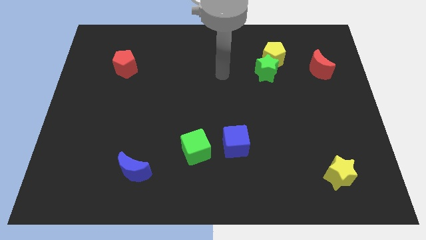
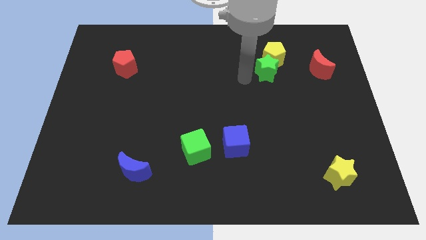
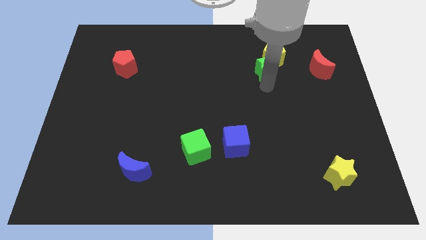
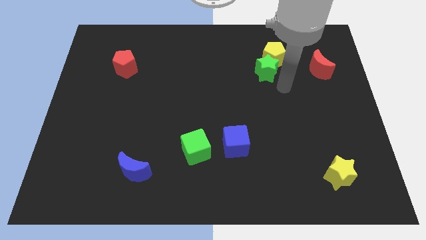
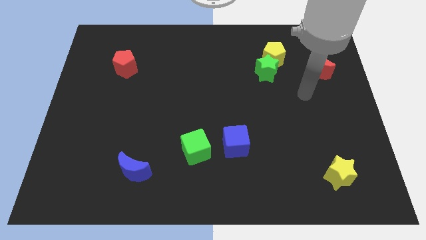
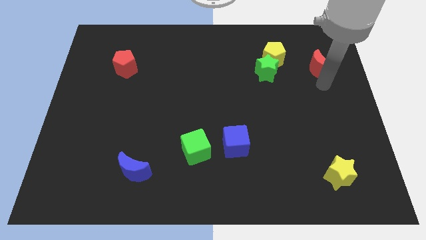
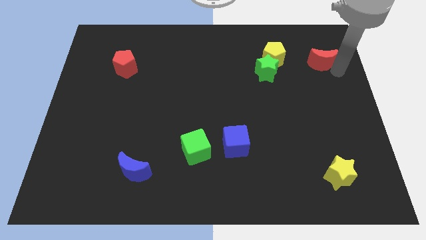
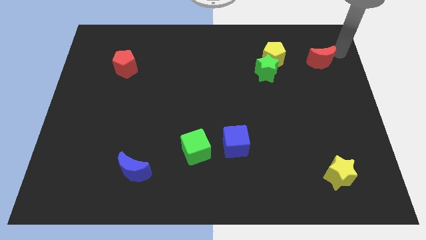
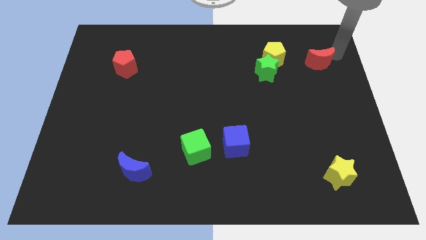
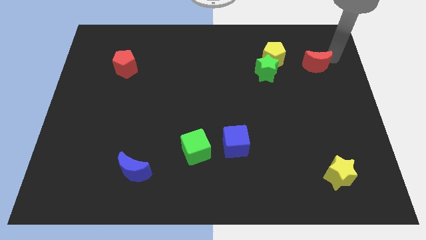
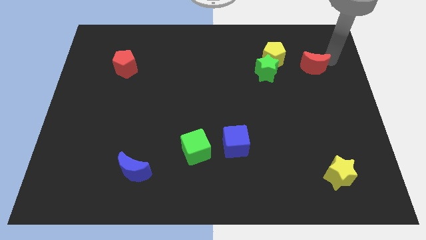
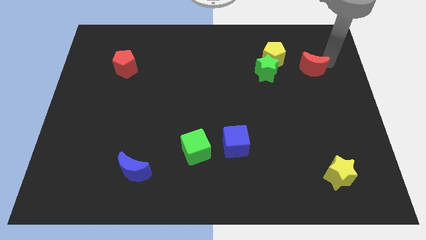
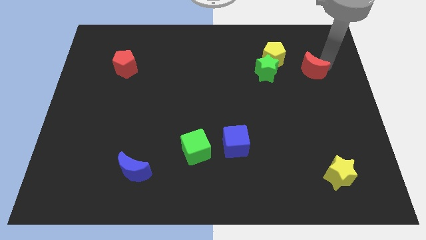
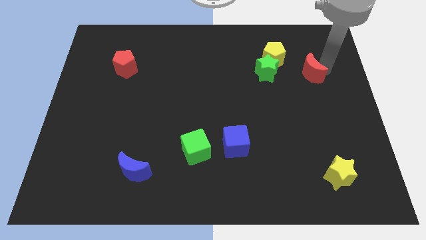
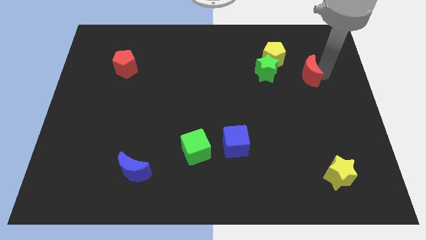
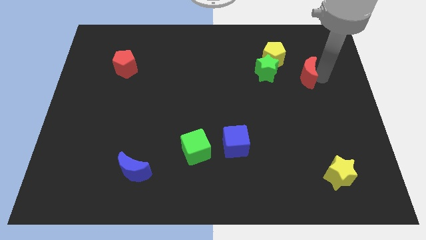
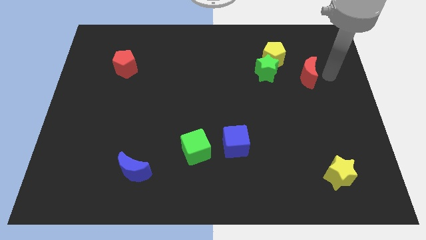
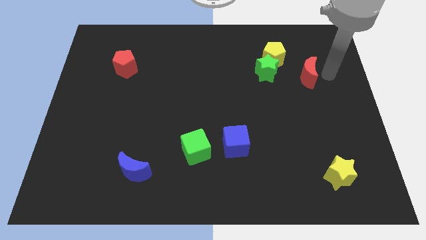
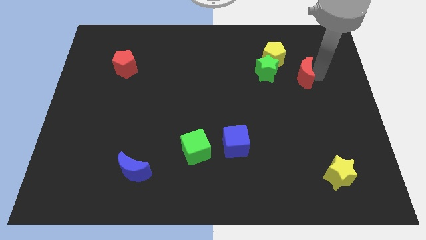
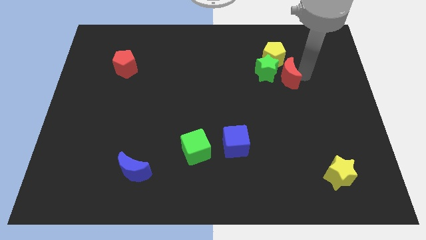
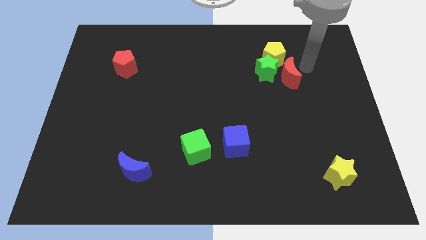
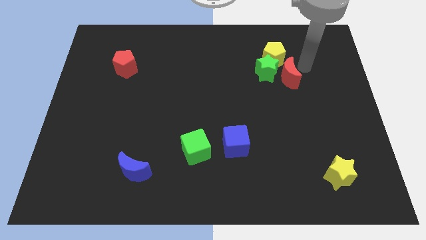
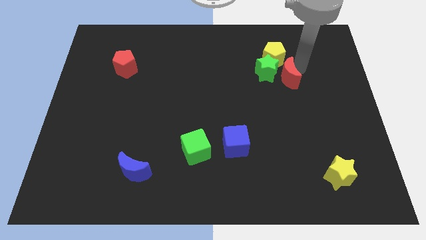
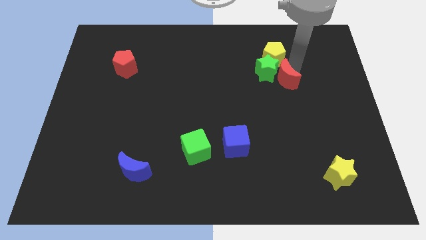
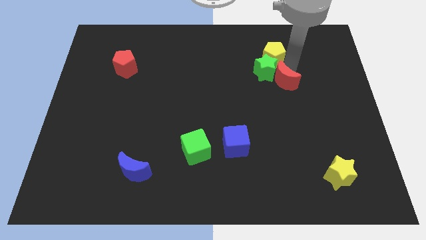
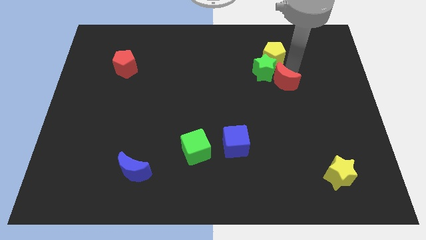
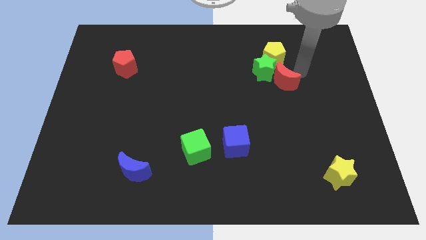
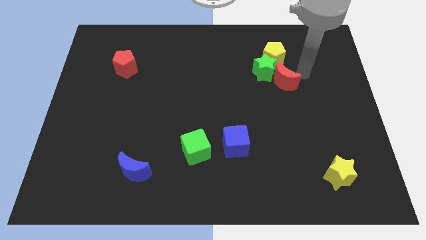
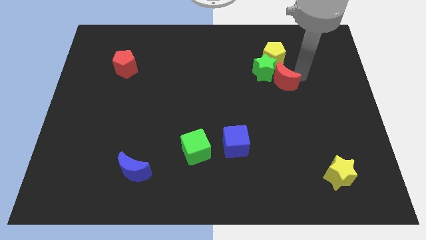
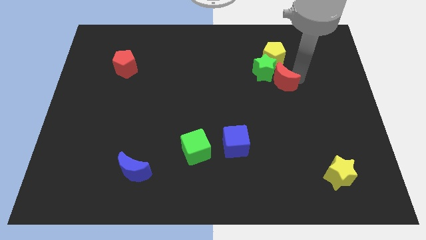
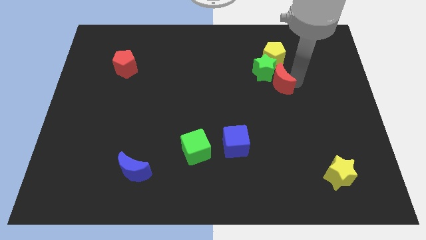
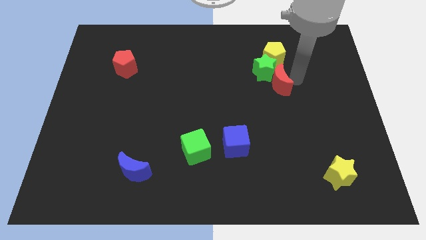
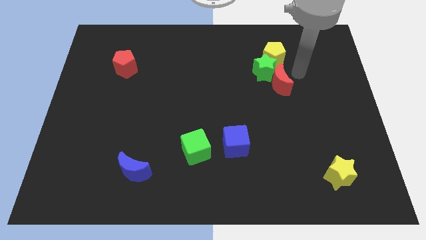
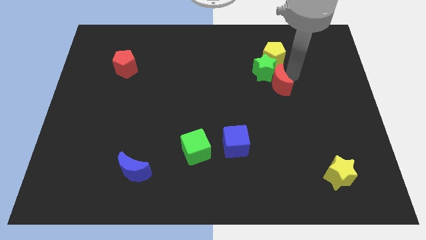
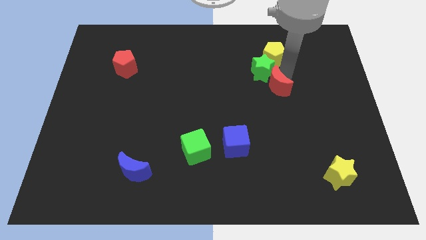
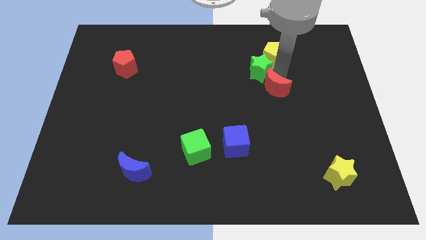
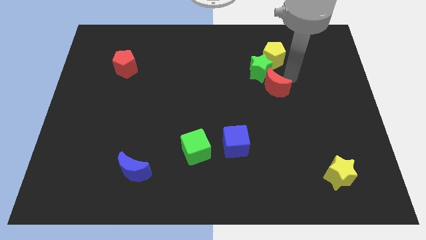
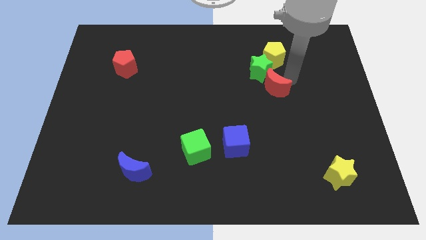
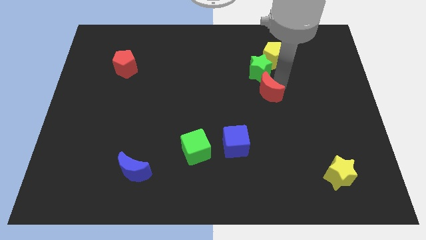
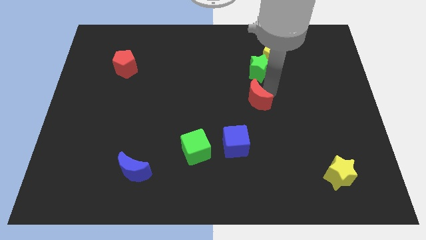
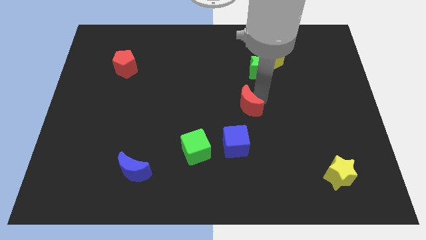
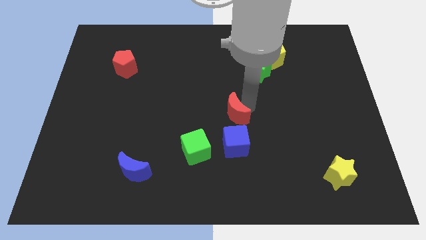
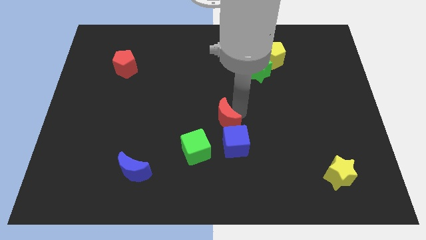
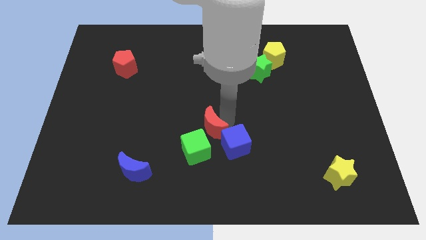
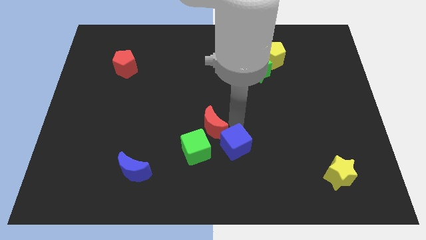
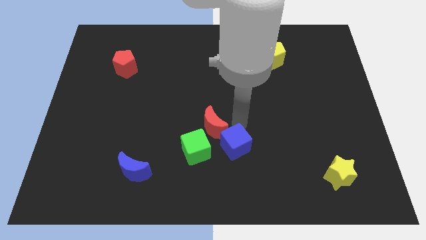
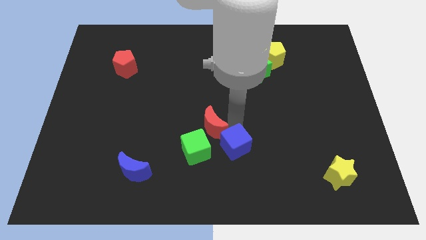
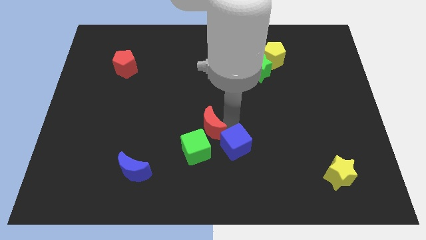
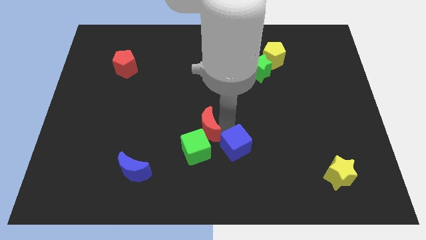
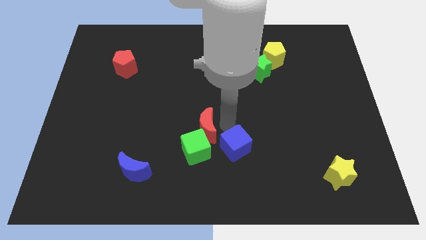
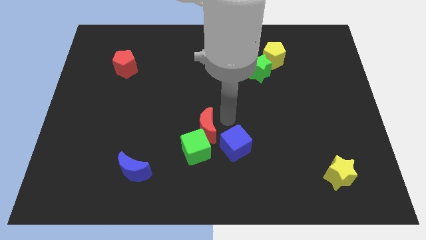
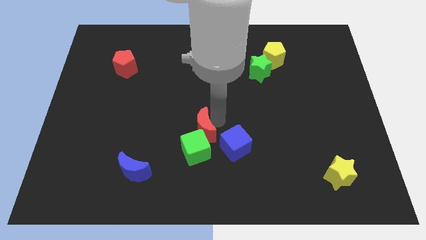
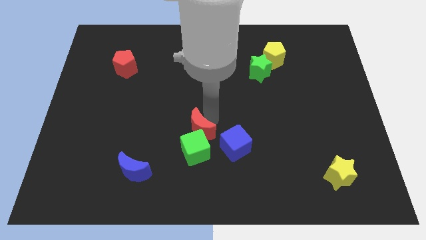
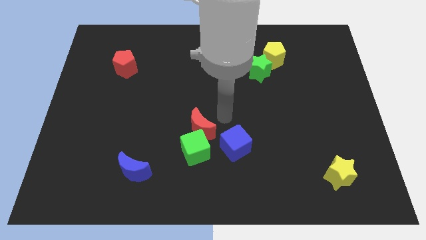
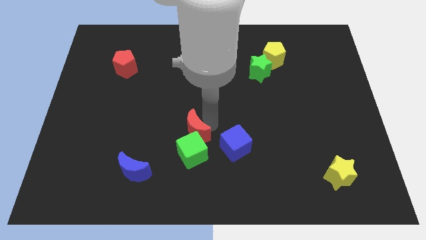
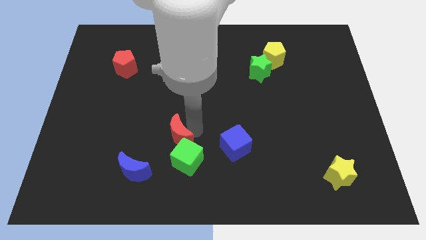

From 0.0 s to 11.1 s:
push the red moon to the top right side of the blue moon

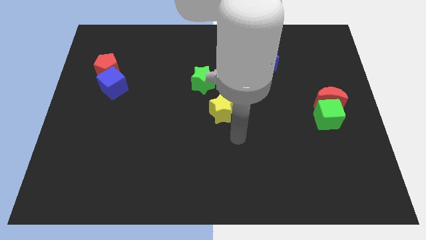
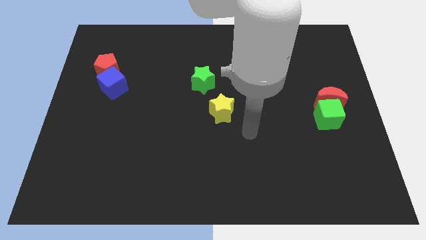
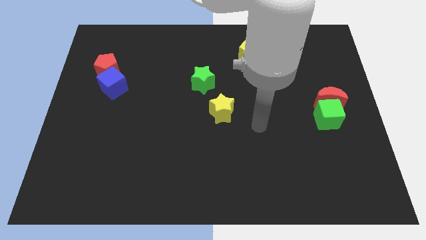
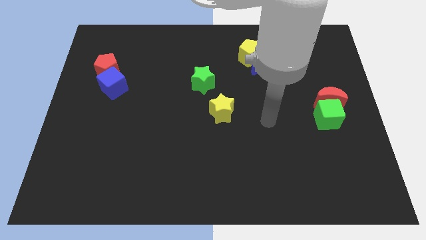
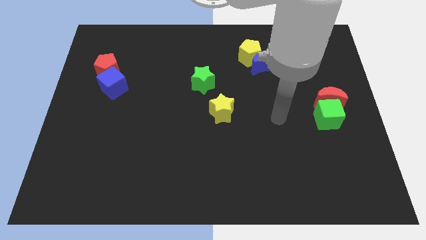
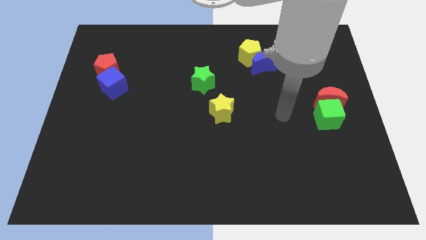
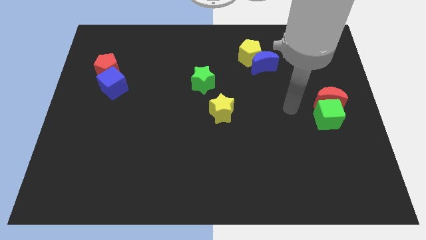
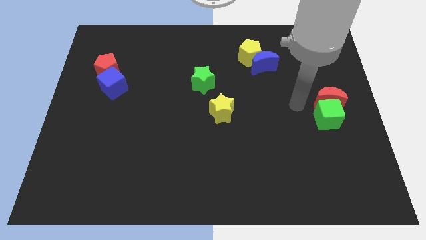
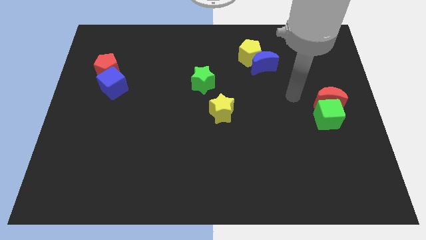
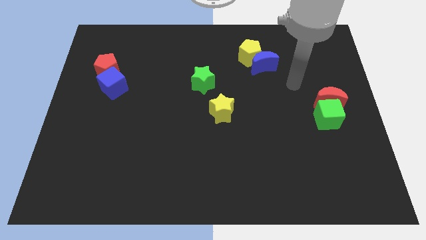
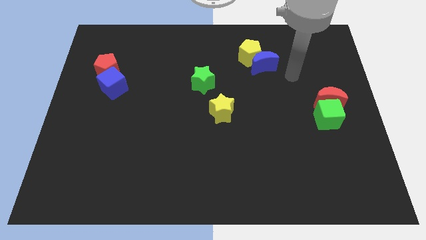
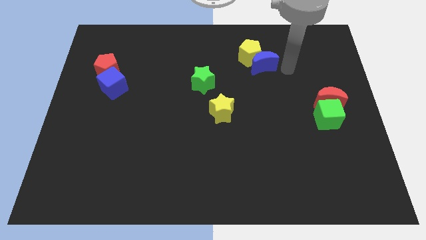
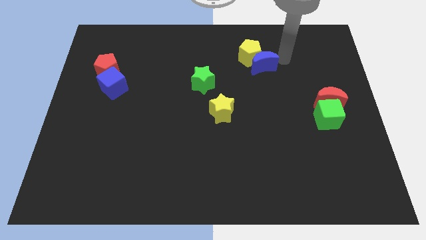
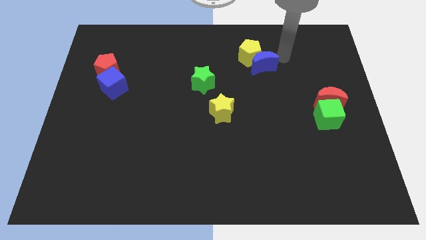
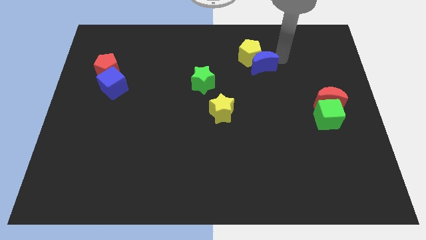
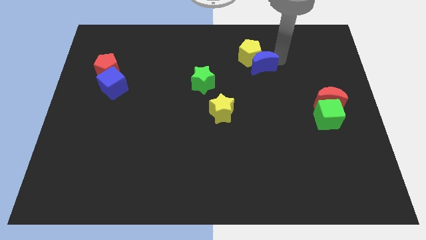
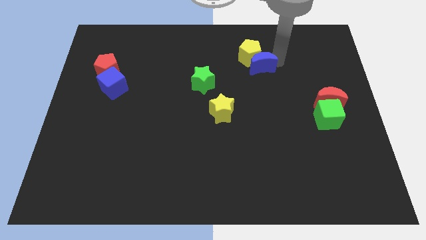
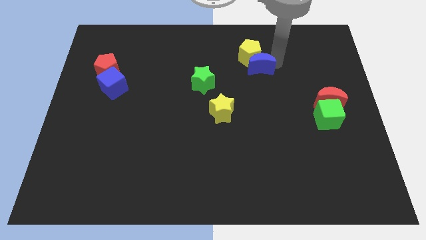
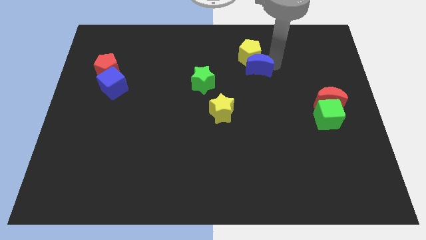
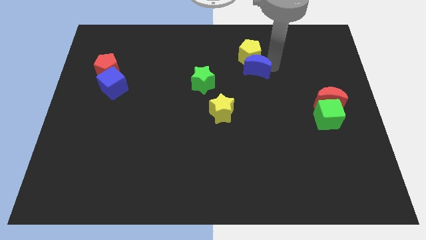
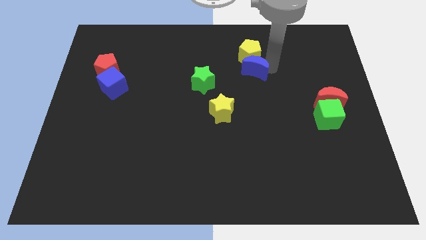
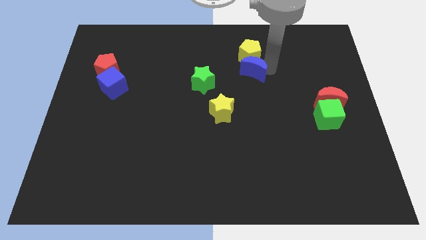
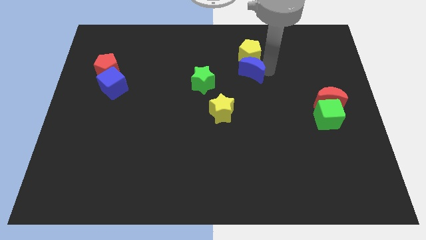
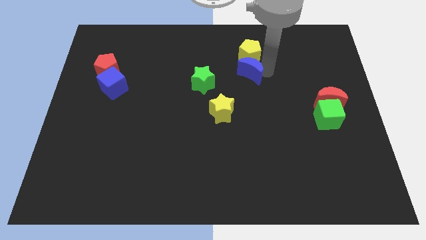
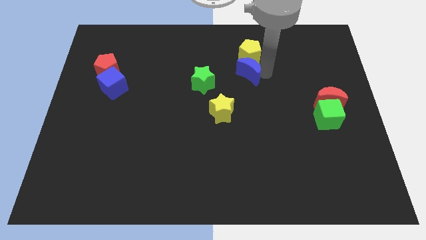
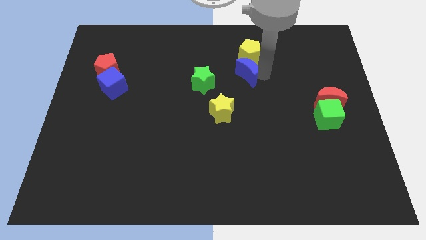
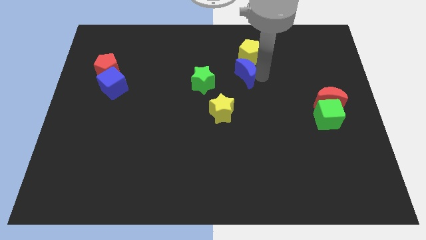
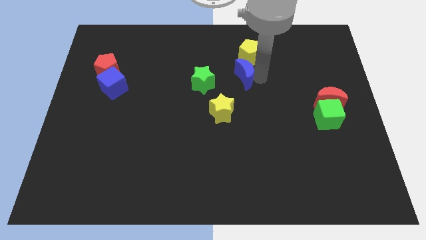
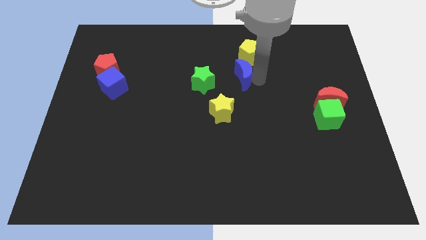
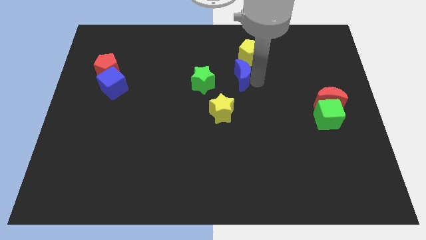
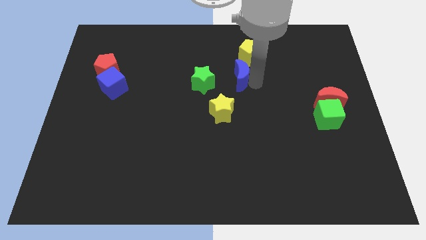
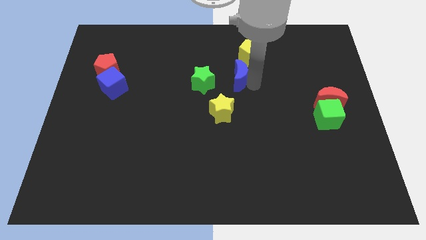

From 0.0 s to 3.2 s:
move the blue moon above the yellow star
